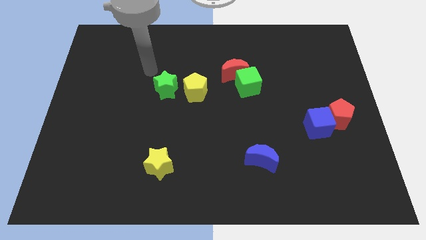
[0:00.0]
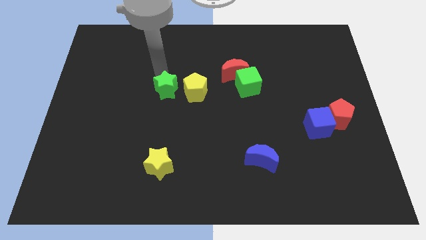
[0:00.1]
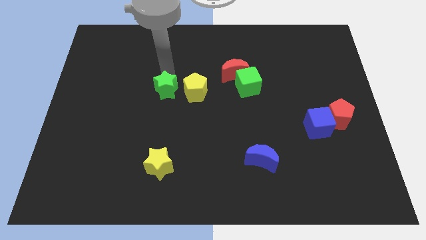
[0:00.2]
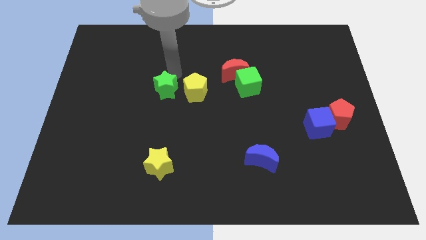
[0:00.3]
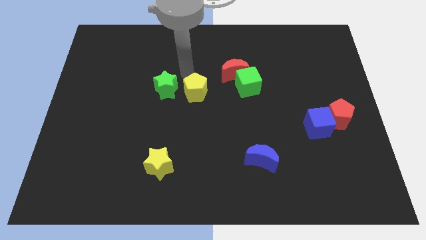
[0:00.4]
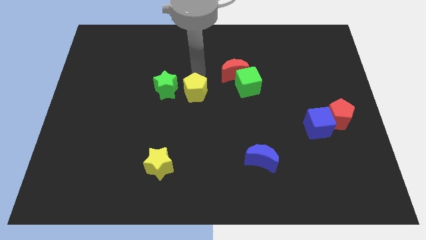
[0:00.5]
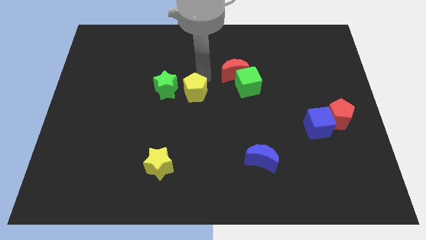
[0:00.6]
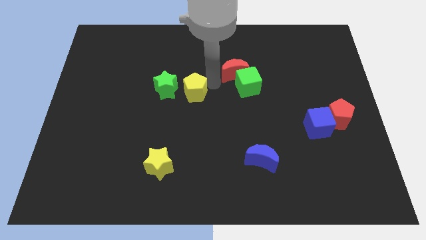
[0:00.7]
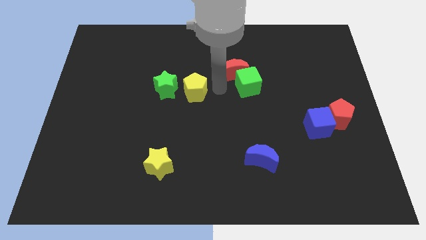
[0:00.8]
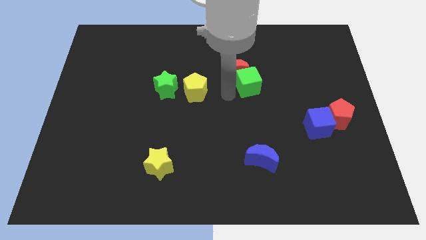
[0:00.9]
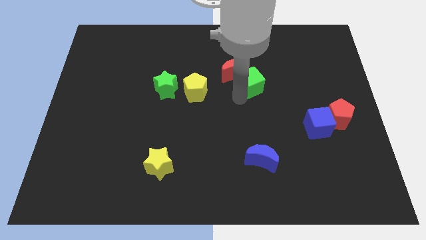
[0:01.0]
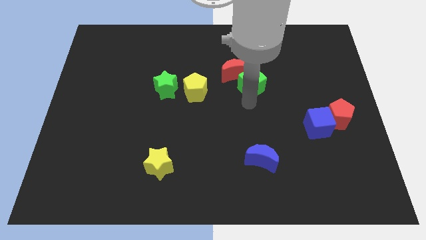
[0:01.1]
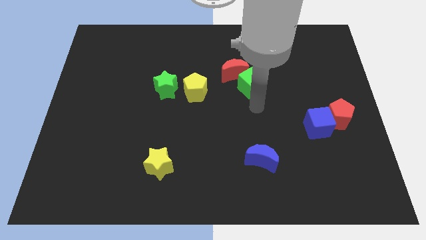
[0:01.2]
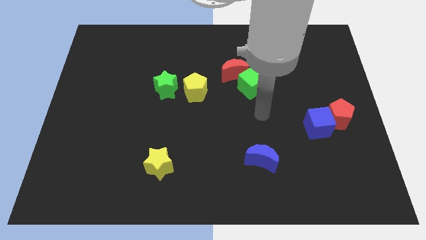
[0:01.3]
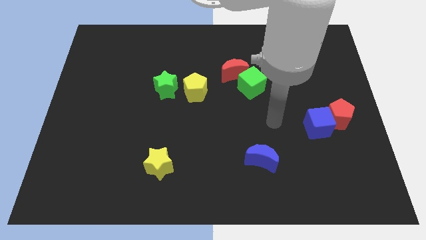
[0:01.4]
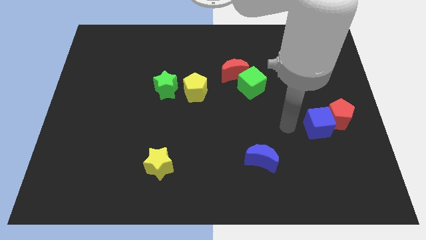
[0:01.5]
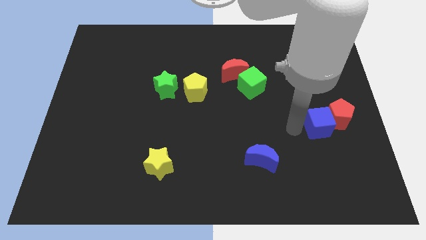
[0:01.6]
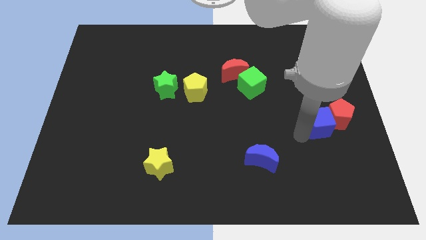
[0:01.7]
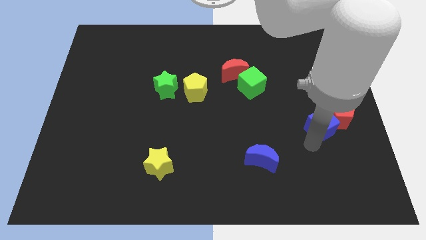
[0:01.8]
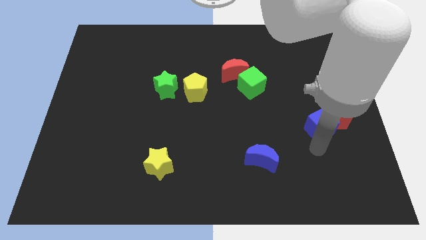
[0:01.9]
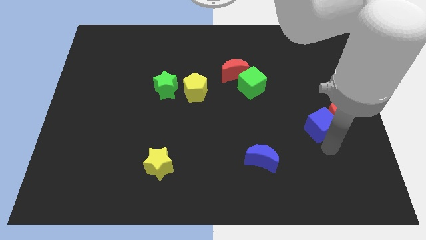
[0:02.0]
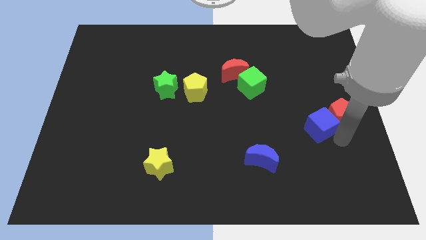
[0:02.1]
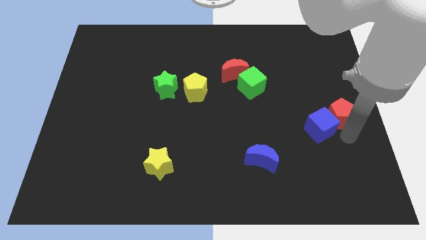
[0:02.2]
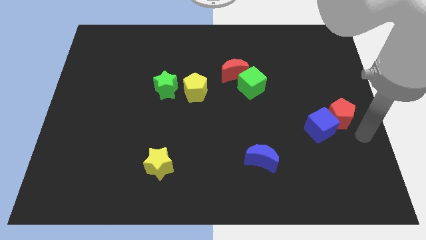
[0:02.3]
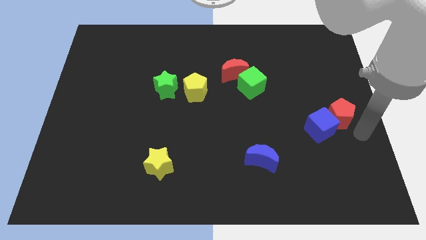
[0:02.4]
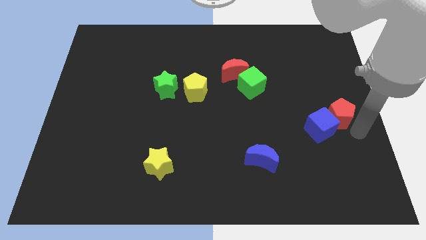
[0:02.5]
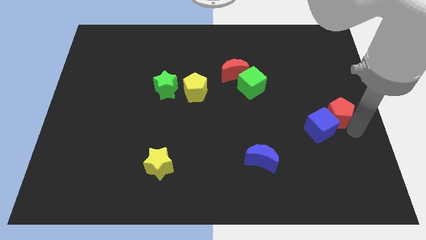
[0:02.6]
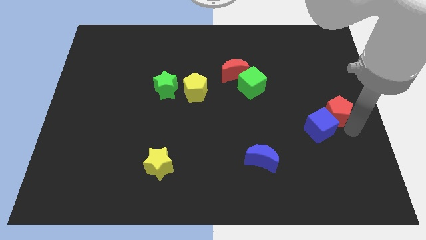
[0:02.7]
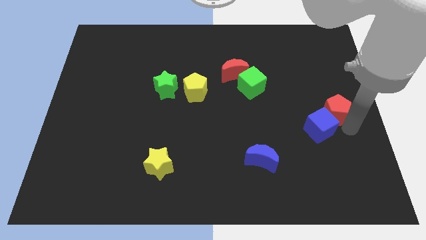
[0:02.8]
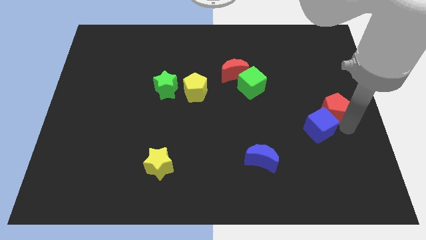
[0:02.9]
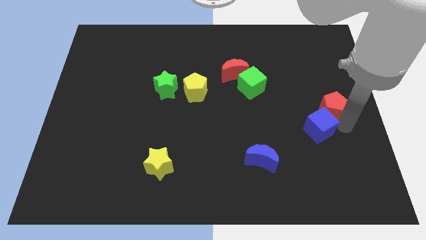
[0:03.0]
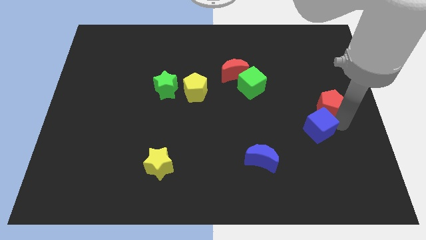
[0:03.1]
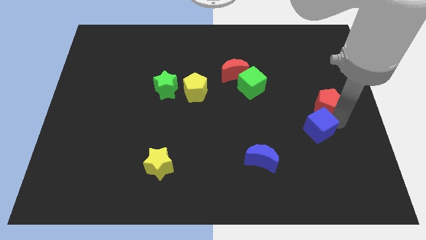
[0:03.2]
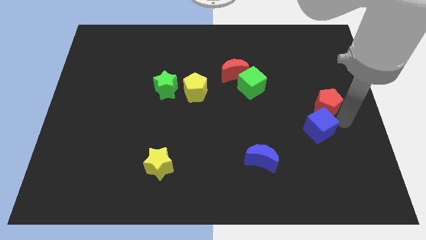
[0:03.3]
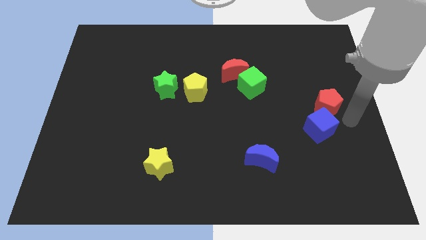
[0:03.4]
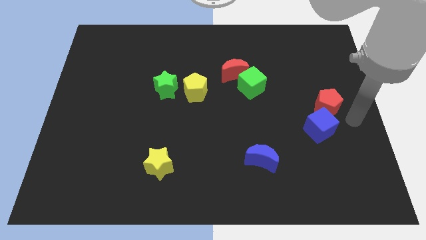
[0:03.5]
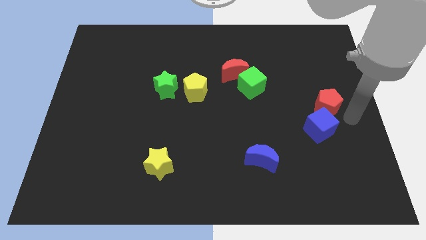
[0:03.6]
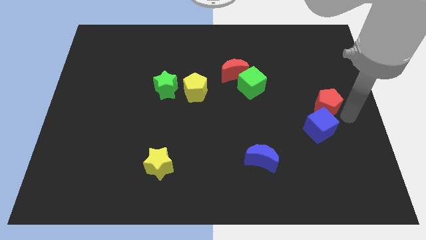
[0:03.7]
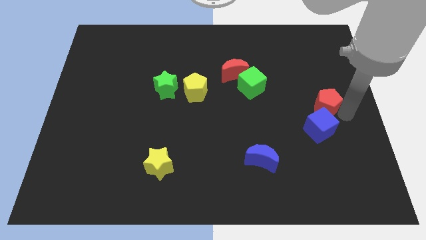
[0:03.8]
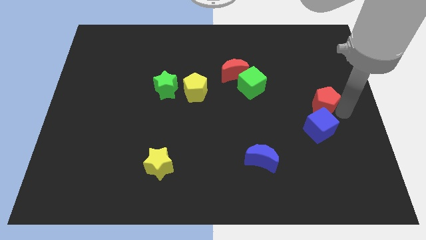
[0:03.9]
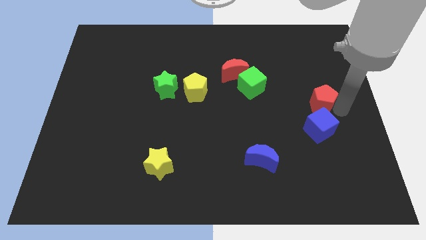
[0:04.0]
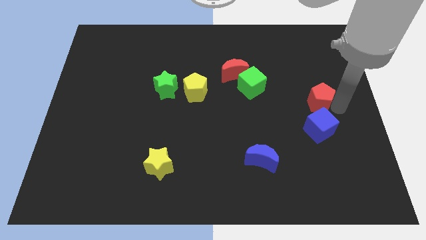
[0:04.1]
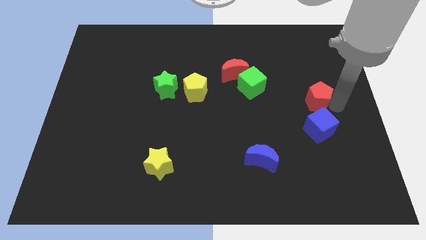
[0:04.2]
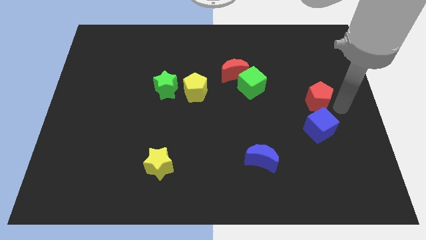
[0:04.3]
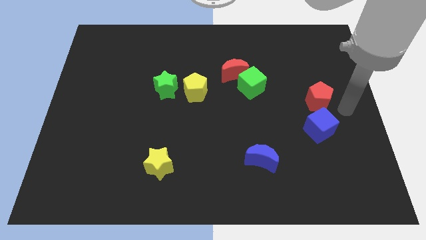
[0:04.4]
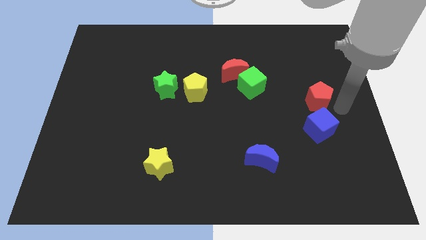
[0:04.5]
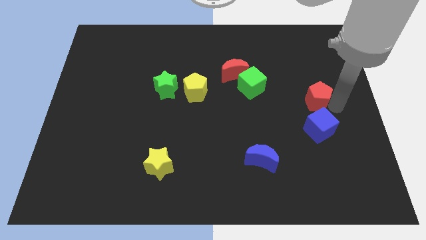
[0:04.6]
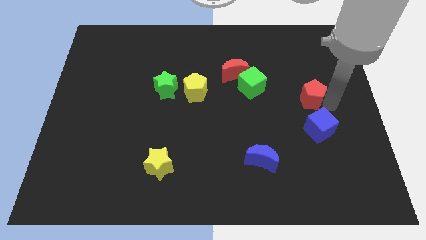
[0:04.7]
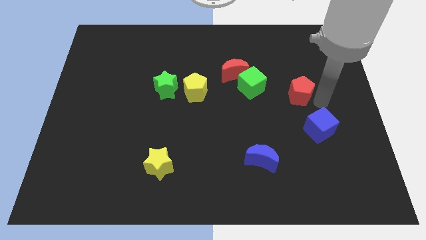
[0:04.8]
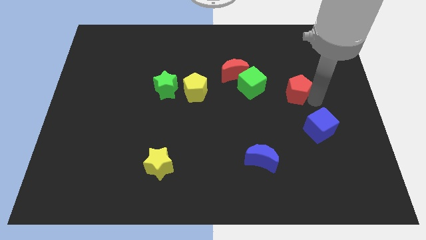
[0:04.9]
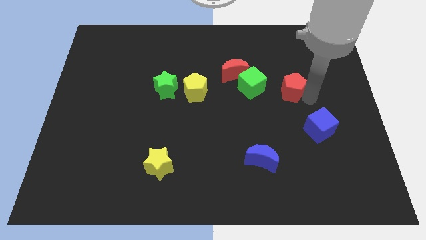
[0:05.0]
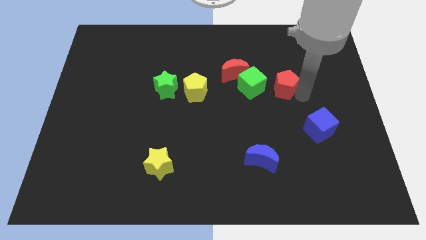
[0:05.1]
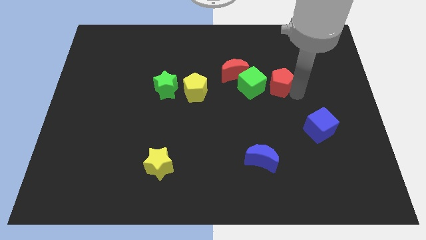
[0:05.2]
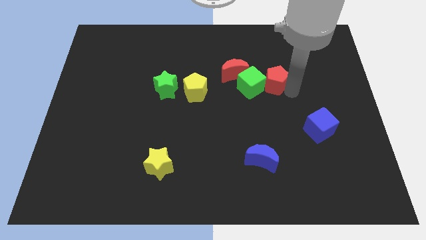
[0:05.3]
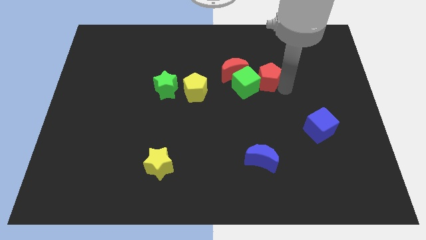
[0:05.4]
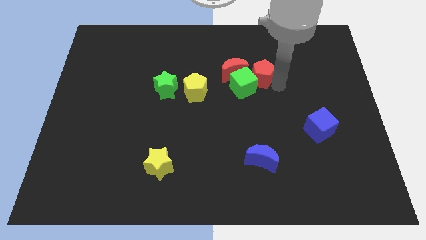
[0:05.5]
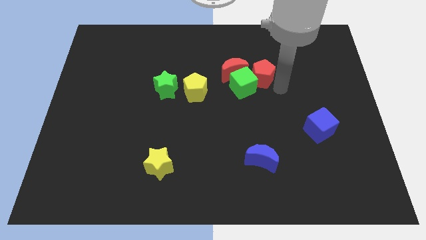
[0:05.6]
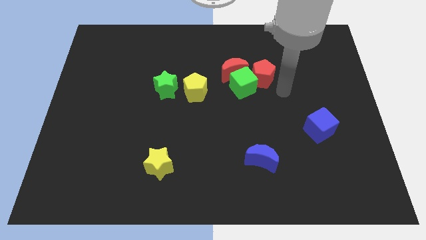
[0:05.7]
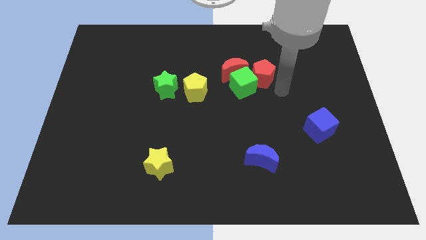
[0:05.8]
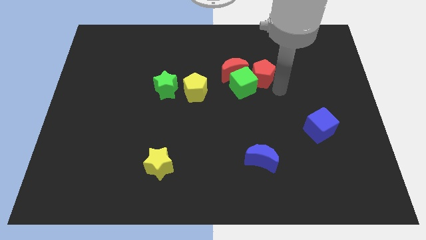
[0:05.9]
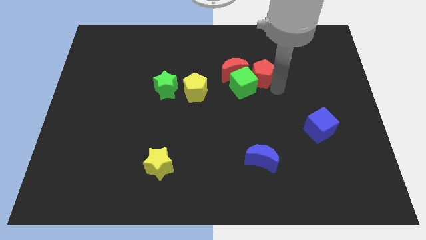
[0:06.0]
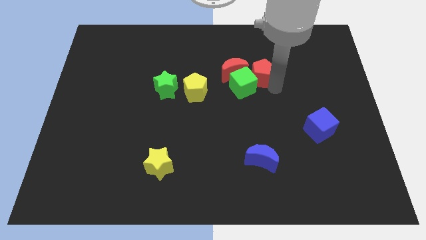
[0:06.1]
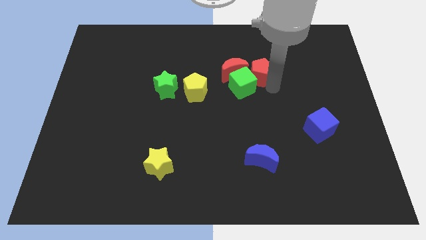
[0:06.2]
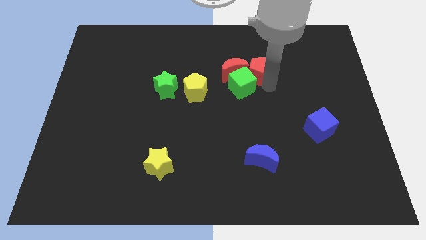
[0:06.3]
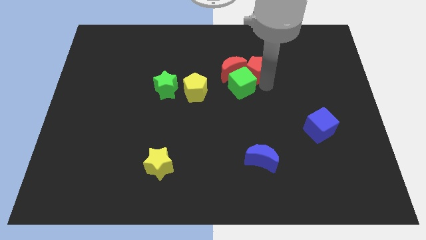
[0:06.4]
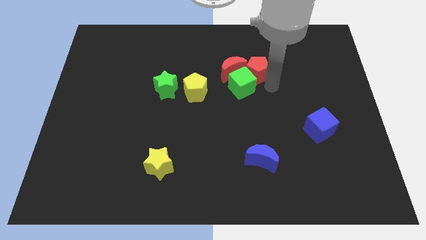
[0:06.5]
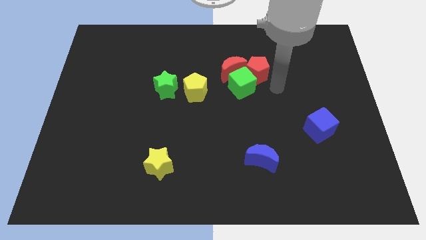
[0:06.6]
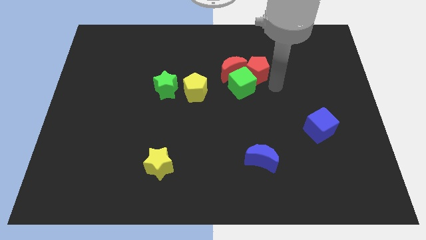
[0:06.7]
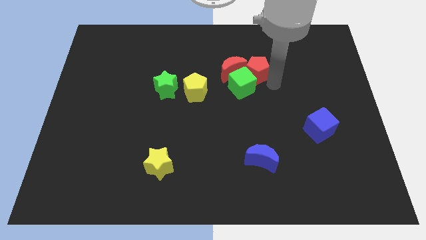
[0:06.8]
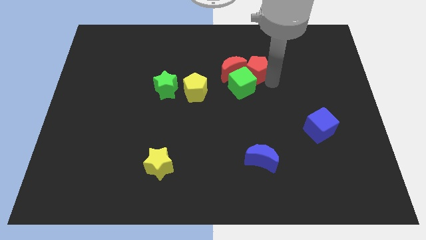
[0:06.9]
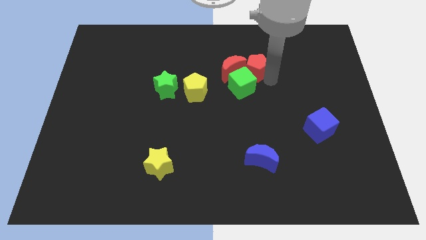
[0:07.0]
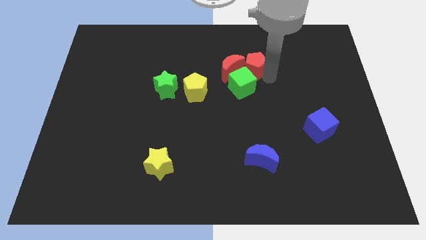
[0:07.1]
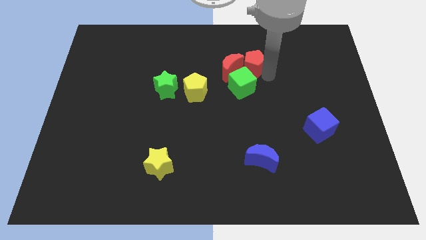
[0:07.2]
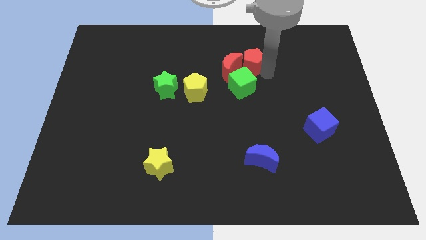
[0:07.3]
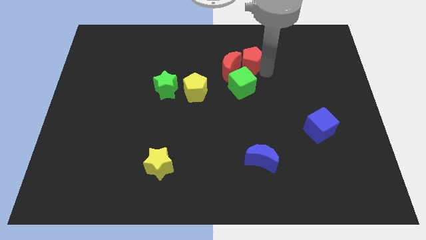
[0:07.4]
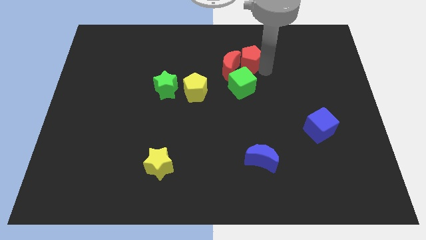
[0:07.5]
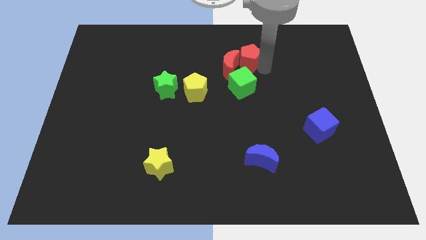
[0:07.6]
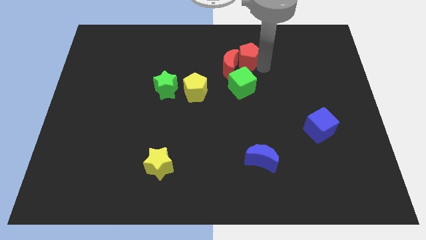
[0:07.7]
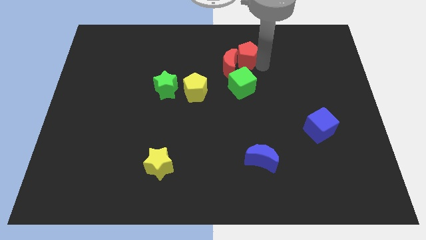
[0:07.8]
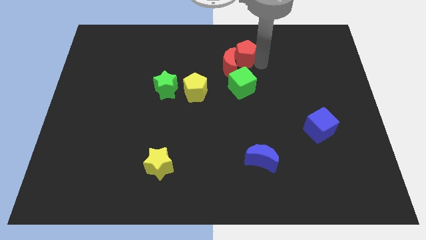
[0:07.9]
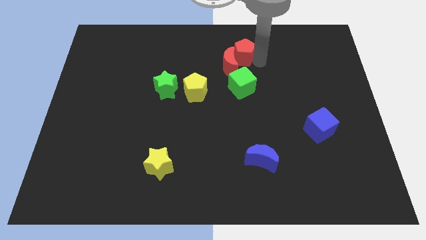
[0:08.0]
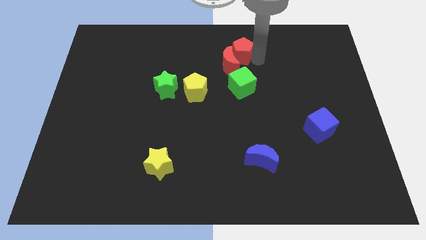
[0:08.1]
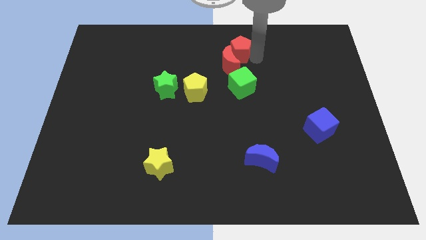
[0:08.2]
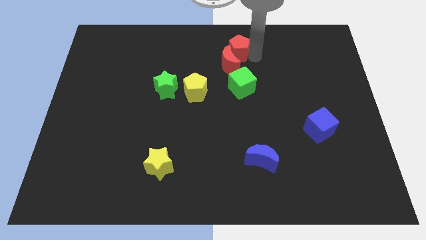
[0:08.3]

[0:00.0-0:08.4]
push the red pentagon to the top side
